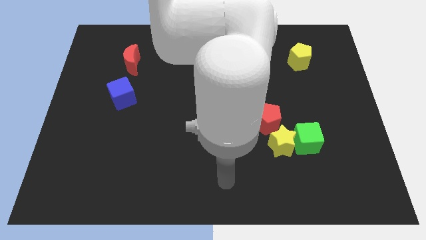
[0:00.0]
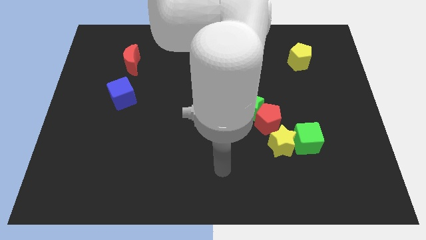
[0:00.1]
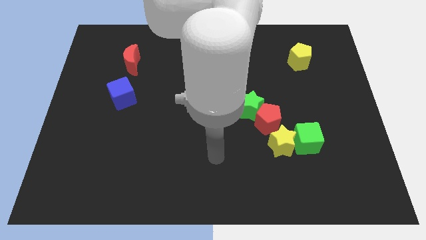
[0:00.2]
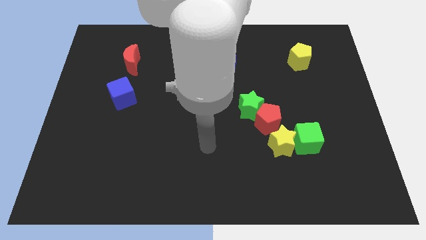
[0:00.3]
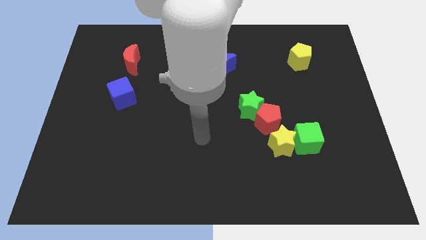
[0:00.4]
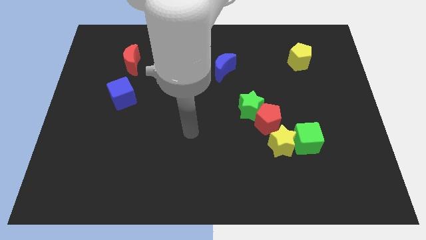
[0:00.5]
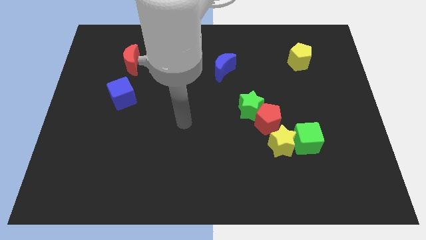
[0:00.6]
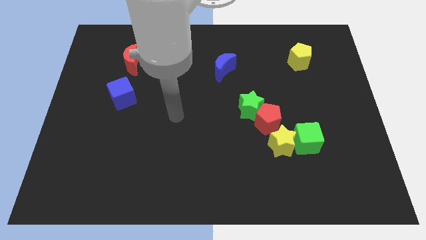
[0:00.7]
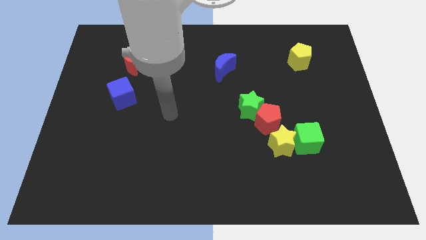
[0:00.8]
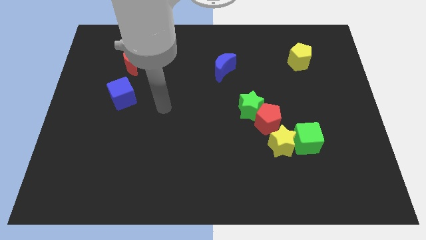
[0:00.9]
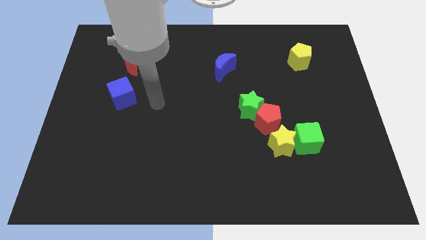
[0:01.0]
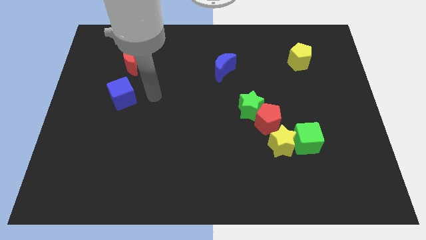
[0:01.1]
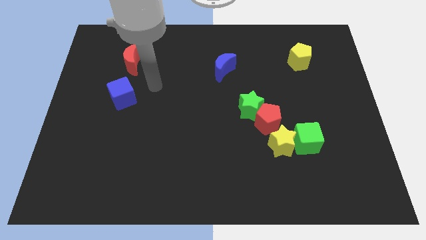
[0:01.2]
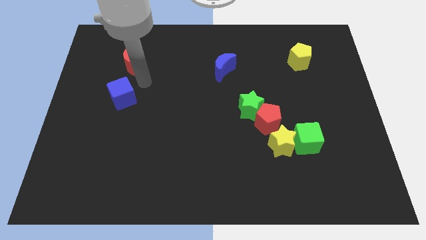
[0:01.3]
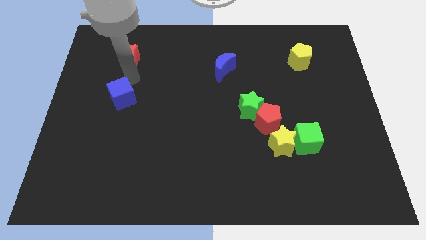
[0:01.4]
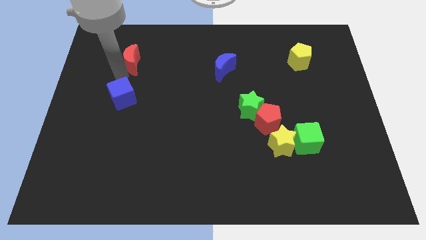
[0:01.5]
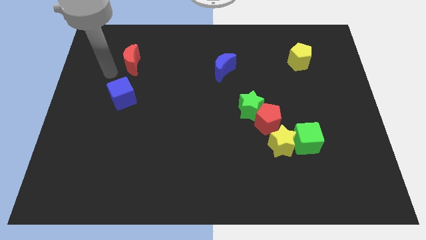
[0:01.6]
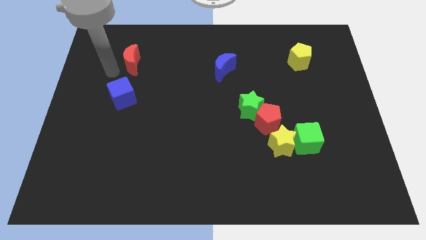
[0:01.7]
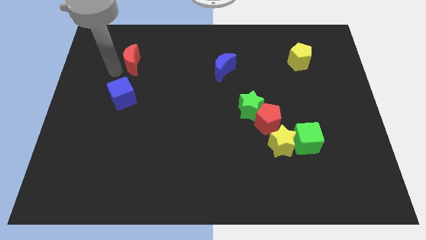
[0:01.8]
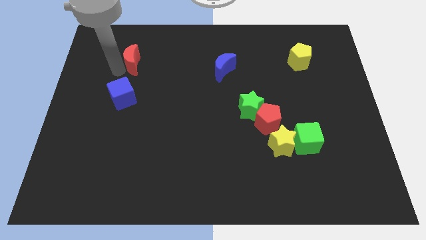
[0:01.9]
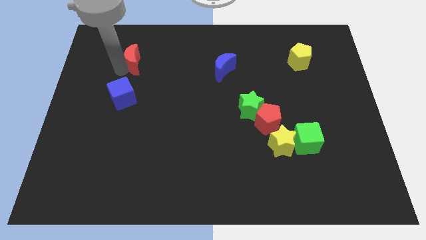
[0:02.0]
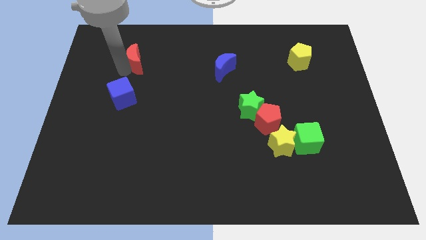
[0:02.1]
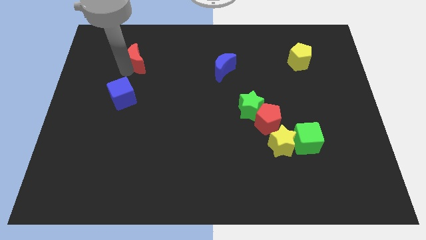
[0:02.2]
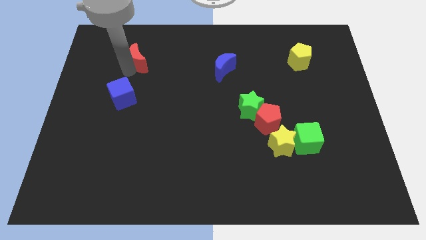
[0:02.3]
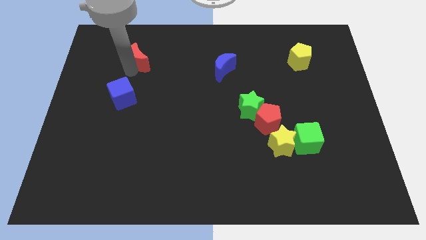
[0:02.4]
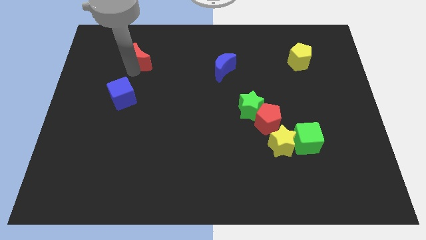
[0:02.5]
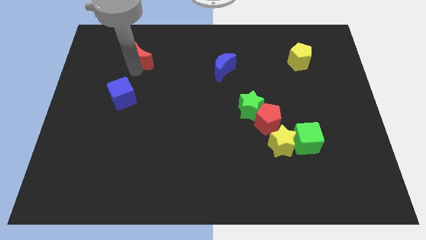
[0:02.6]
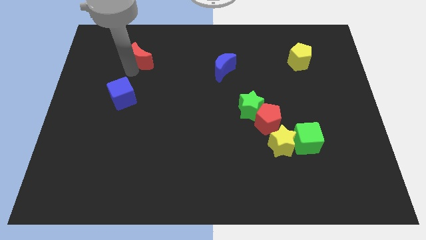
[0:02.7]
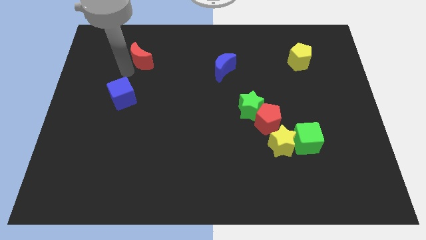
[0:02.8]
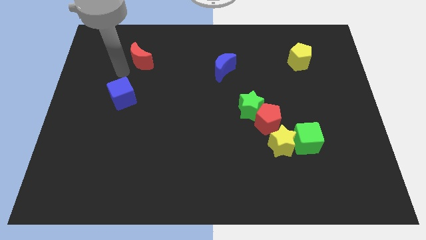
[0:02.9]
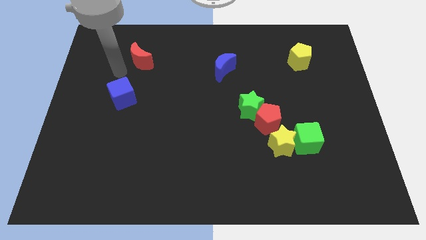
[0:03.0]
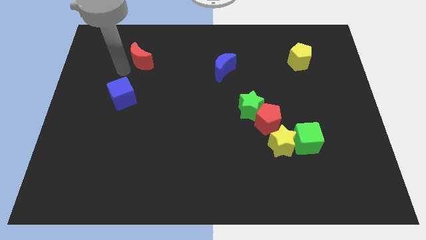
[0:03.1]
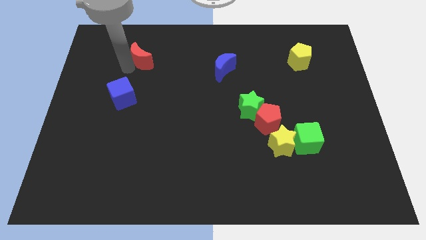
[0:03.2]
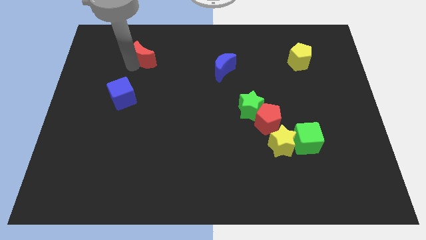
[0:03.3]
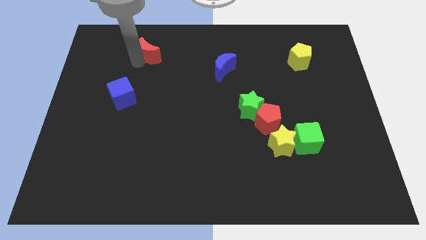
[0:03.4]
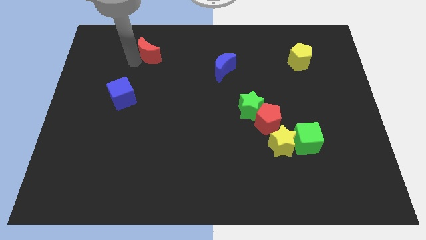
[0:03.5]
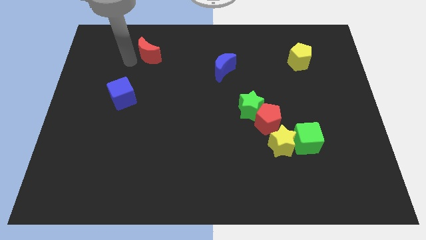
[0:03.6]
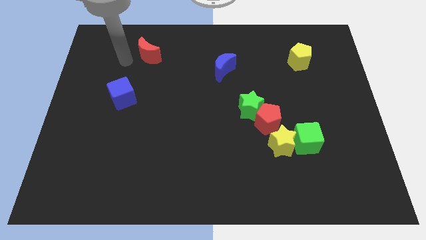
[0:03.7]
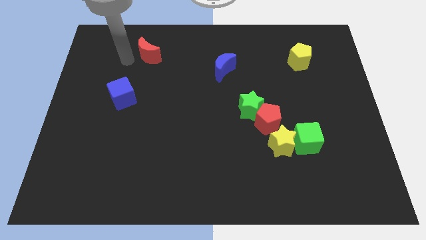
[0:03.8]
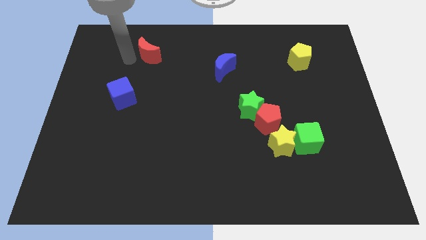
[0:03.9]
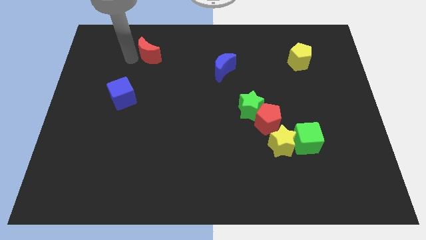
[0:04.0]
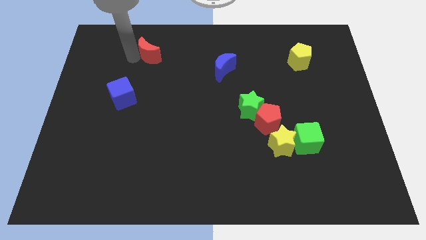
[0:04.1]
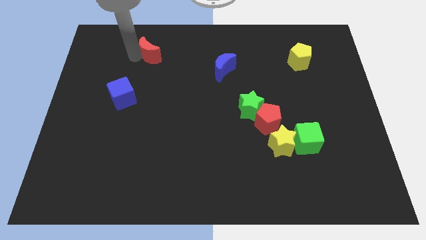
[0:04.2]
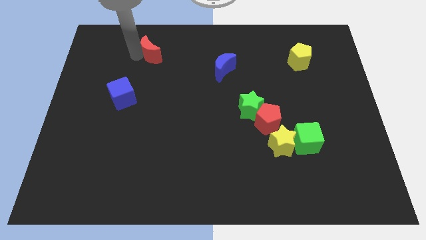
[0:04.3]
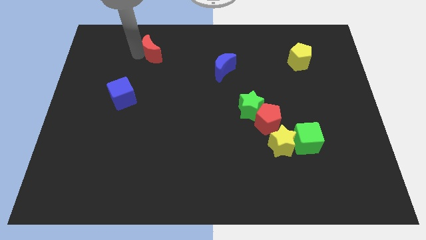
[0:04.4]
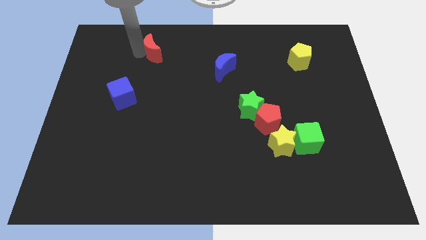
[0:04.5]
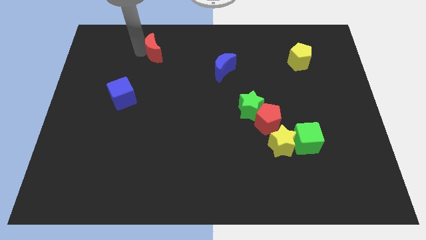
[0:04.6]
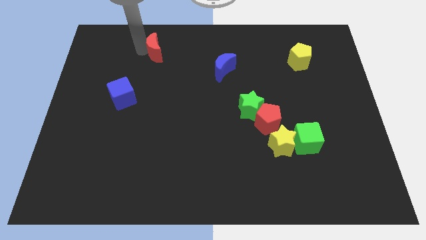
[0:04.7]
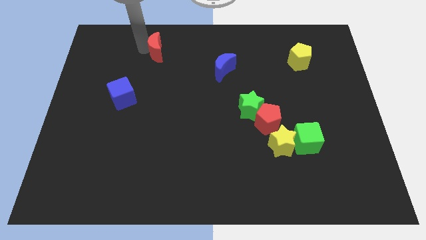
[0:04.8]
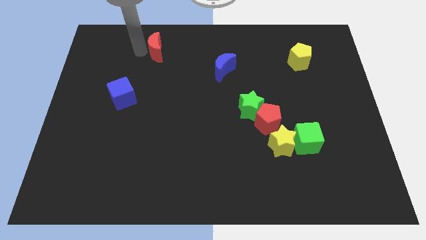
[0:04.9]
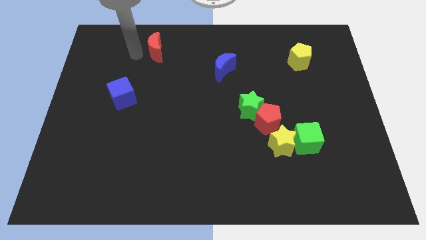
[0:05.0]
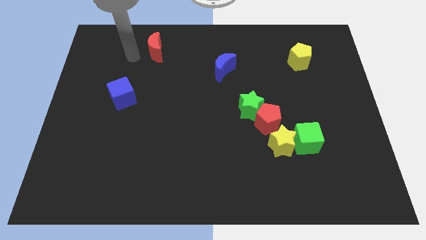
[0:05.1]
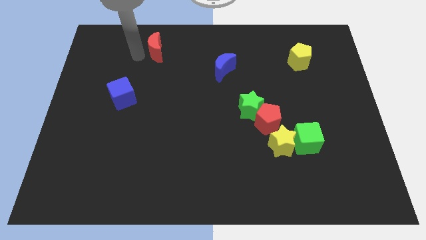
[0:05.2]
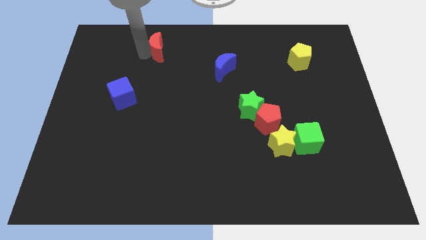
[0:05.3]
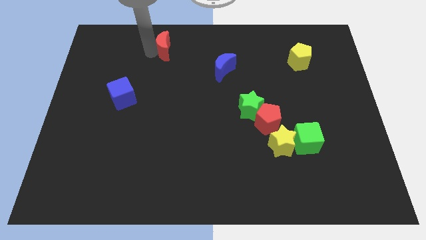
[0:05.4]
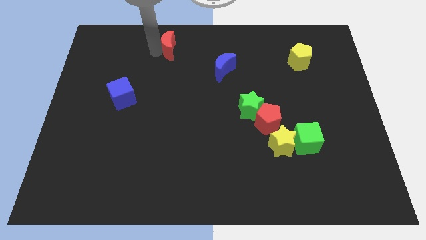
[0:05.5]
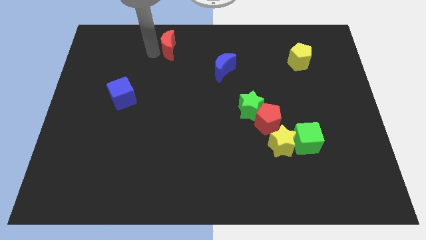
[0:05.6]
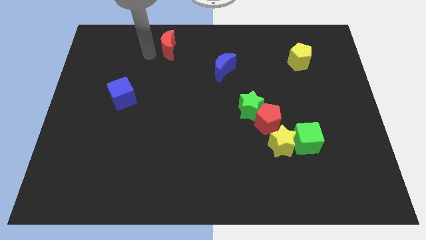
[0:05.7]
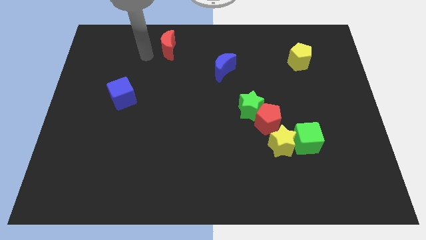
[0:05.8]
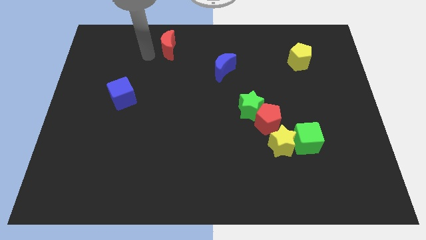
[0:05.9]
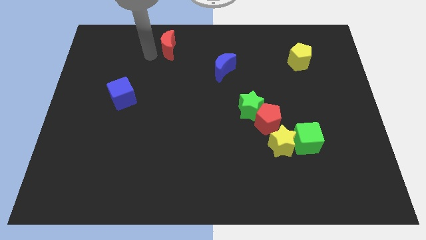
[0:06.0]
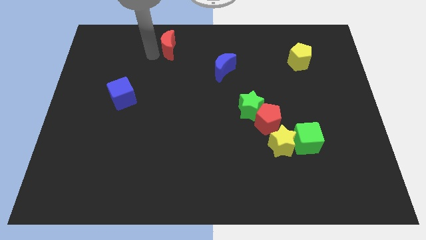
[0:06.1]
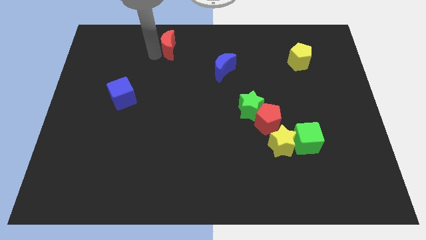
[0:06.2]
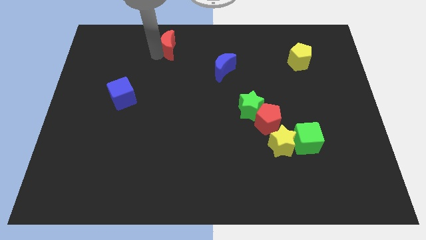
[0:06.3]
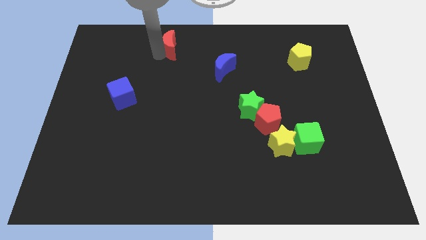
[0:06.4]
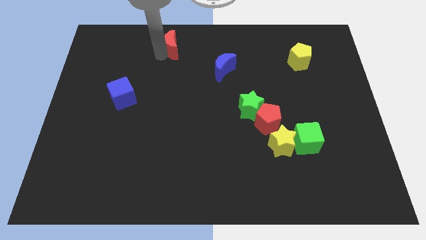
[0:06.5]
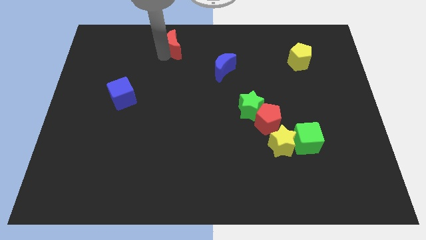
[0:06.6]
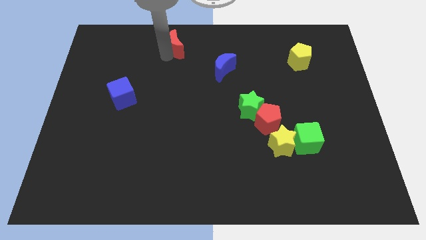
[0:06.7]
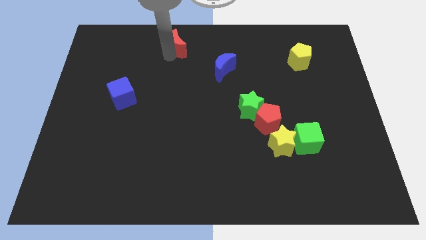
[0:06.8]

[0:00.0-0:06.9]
slide the red moon to the top

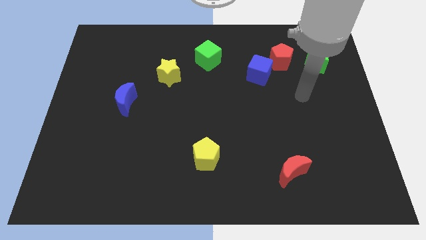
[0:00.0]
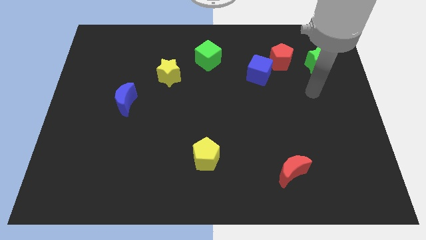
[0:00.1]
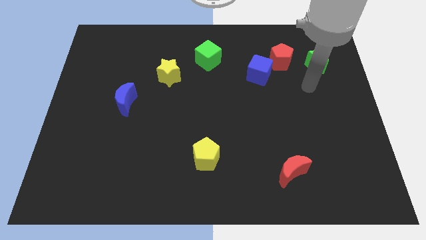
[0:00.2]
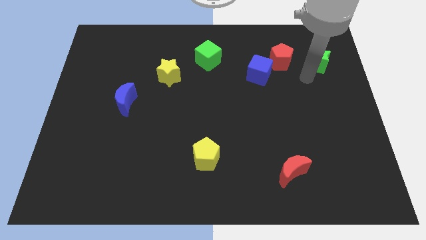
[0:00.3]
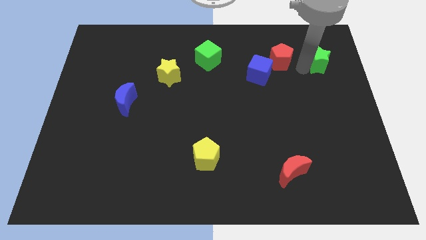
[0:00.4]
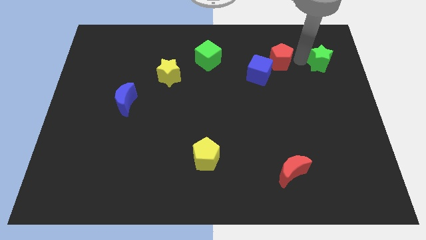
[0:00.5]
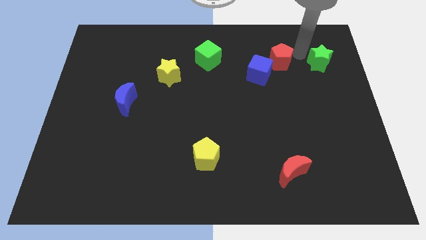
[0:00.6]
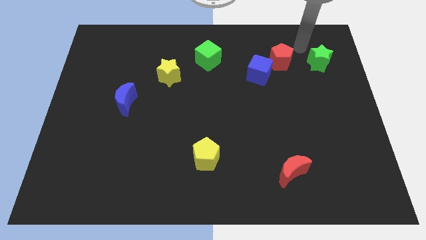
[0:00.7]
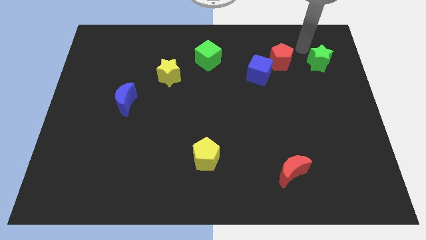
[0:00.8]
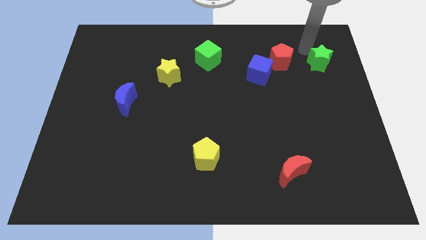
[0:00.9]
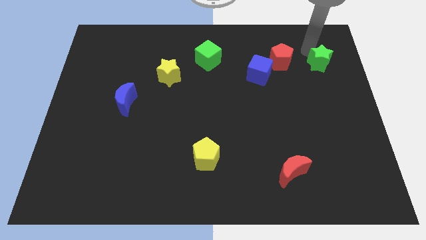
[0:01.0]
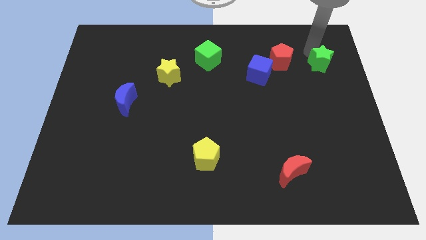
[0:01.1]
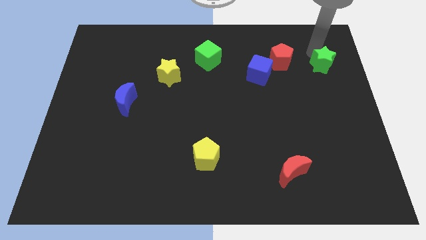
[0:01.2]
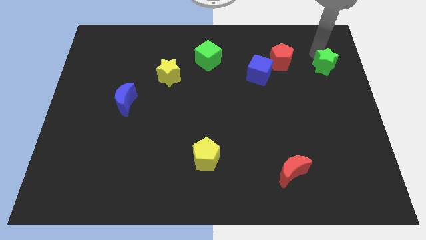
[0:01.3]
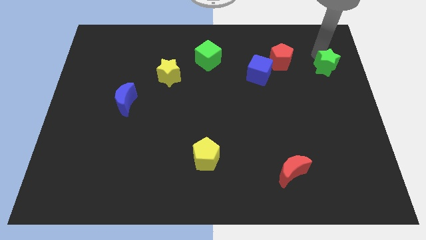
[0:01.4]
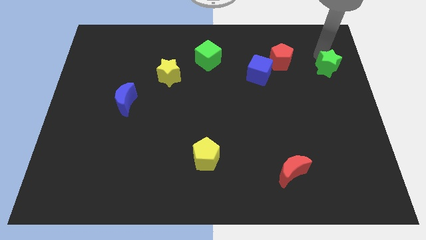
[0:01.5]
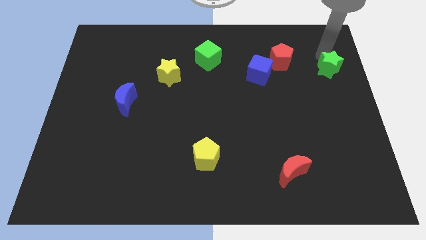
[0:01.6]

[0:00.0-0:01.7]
push the green star to the right side
